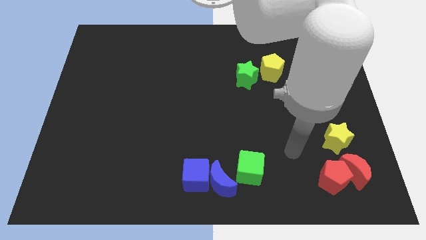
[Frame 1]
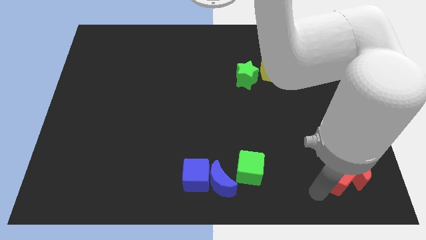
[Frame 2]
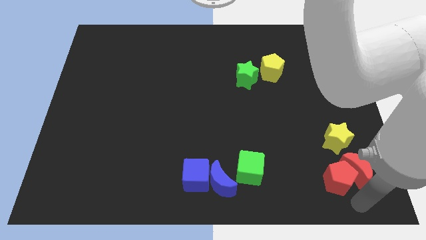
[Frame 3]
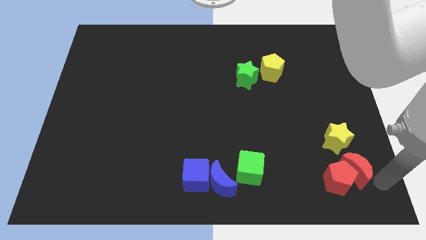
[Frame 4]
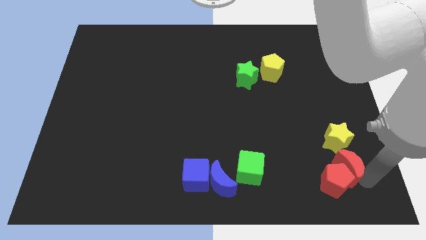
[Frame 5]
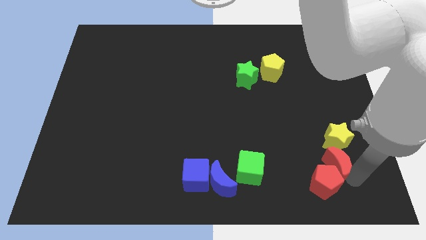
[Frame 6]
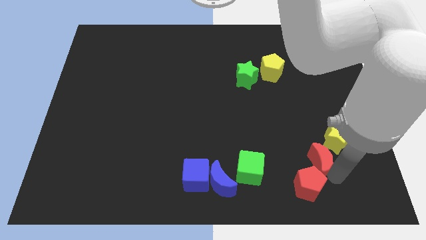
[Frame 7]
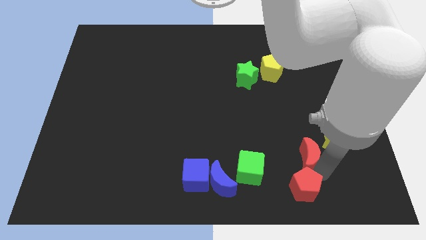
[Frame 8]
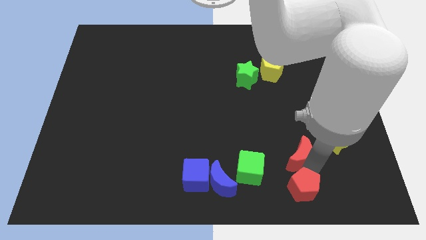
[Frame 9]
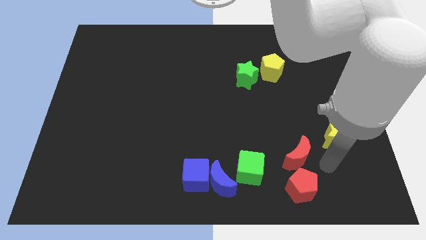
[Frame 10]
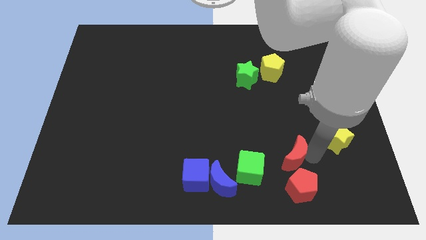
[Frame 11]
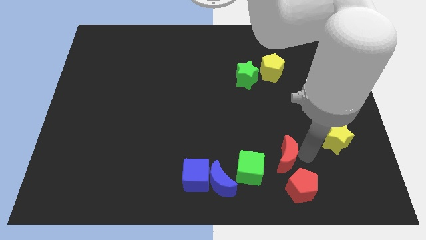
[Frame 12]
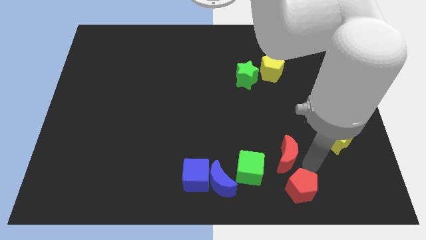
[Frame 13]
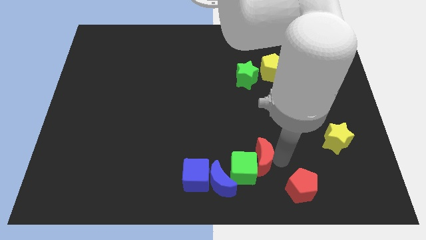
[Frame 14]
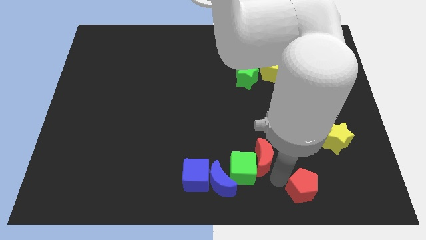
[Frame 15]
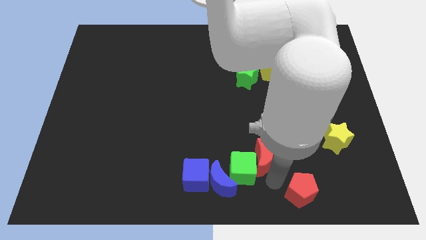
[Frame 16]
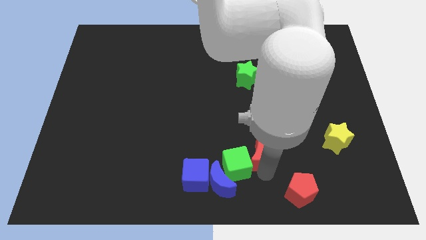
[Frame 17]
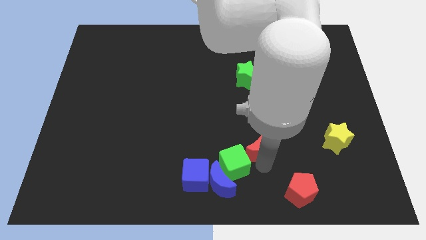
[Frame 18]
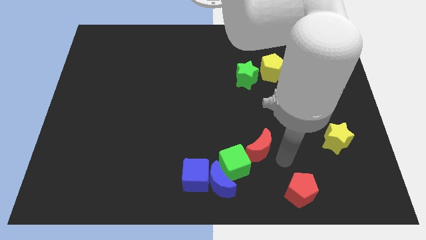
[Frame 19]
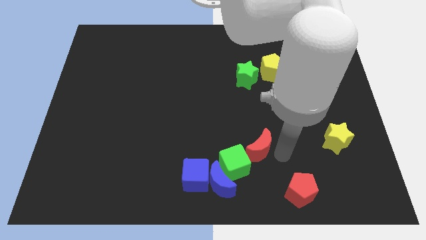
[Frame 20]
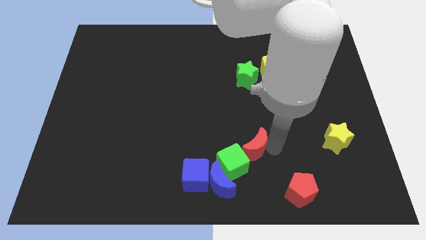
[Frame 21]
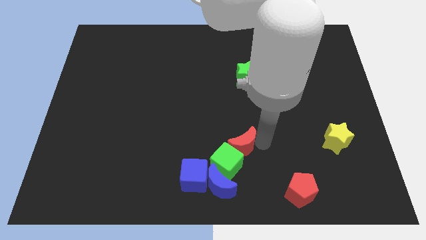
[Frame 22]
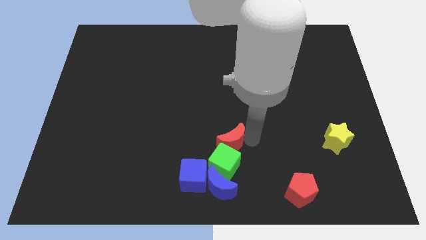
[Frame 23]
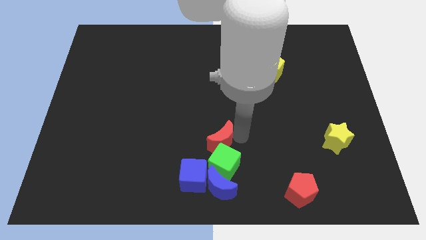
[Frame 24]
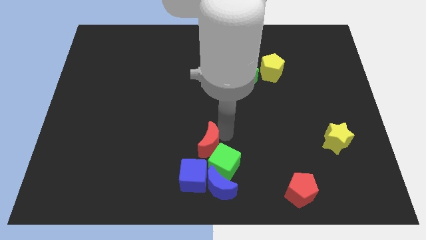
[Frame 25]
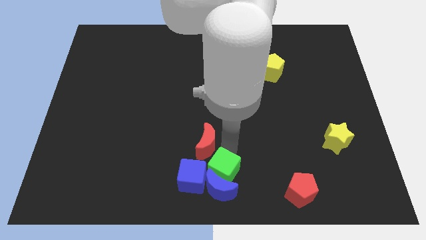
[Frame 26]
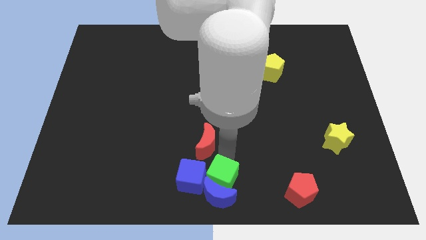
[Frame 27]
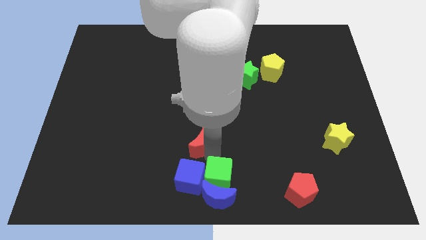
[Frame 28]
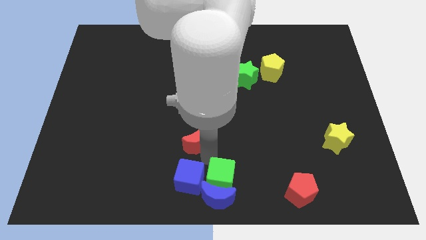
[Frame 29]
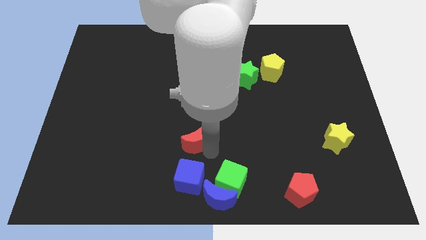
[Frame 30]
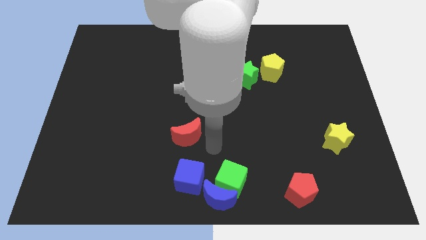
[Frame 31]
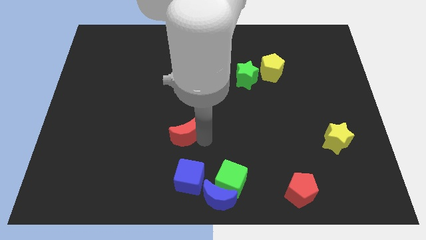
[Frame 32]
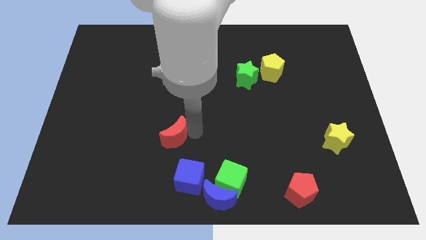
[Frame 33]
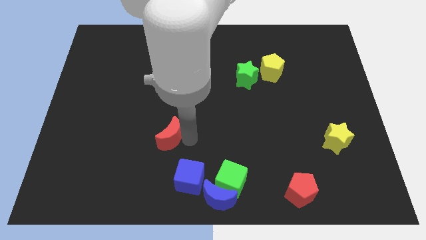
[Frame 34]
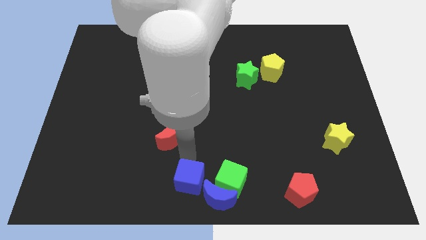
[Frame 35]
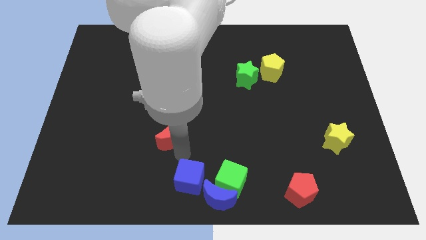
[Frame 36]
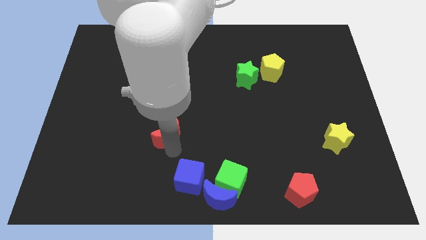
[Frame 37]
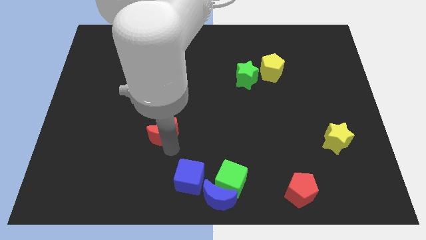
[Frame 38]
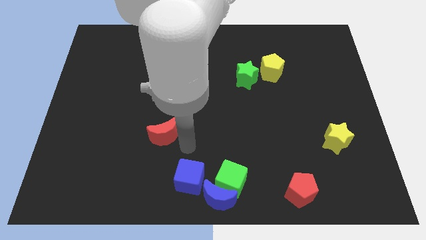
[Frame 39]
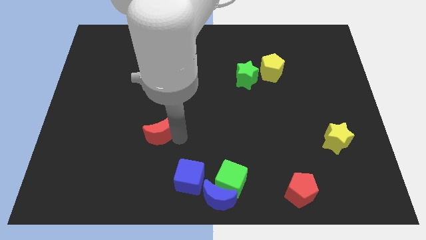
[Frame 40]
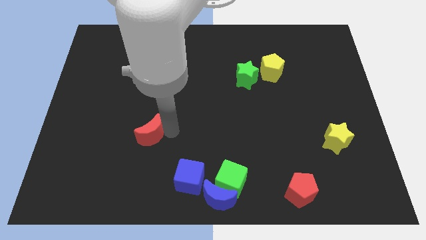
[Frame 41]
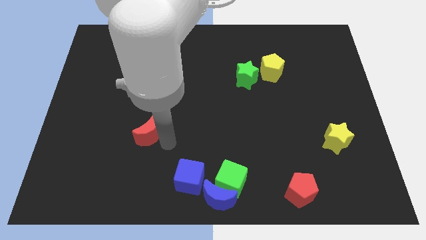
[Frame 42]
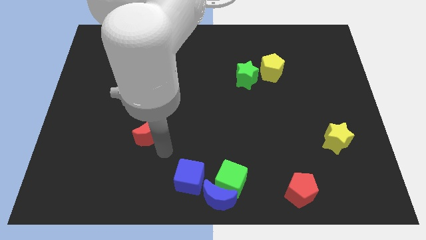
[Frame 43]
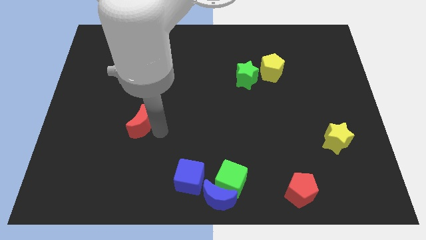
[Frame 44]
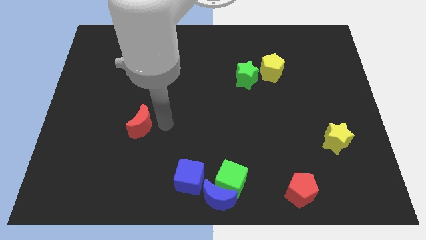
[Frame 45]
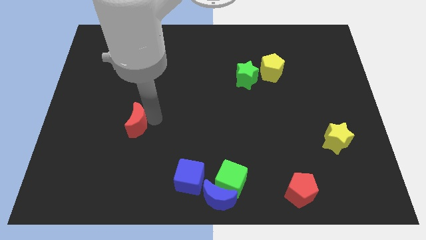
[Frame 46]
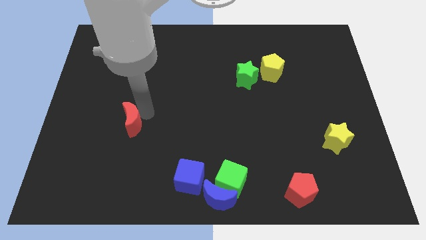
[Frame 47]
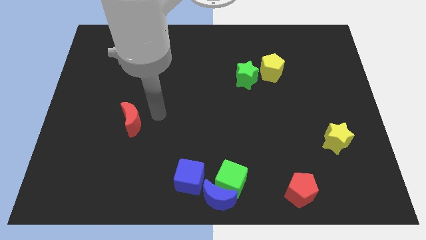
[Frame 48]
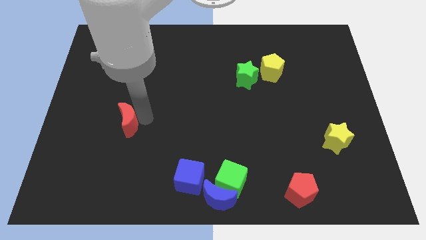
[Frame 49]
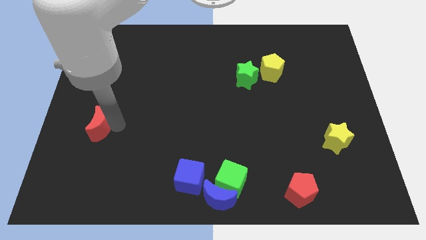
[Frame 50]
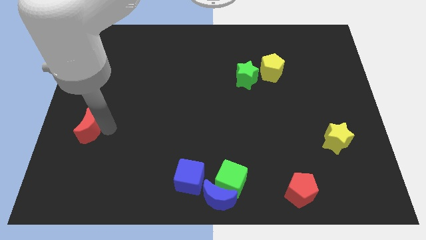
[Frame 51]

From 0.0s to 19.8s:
put the red moon to the left side

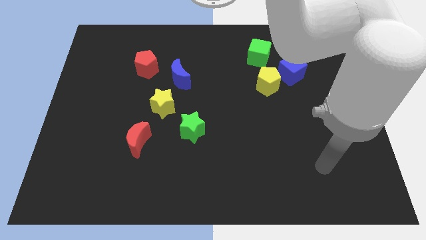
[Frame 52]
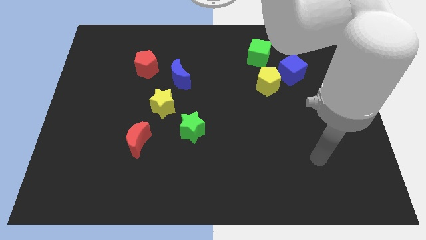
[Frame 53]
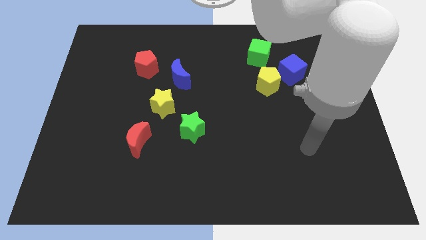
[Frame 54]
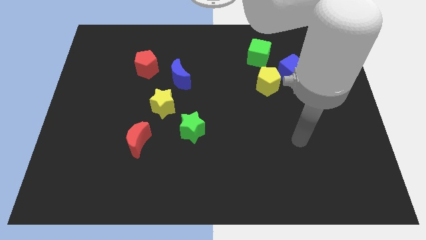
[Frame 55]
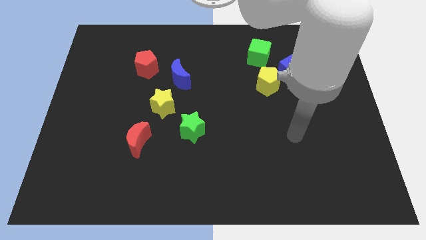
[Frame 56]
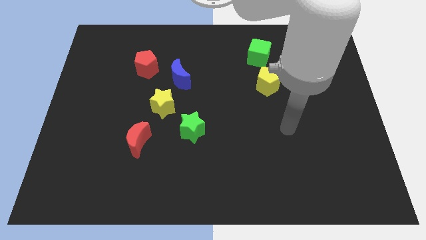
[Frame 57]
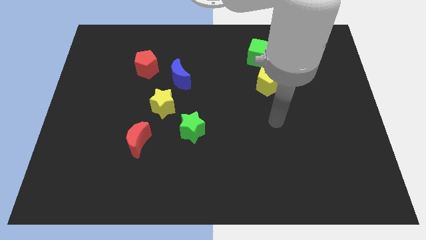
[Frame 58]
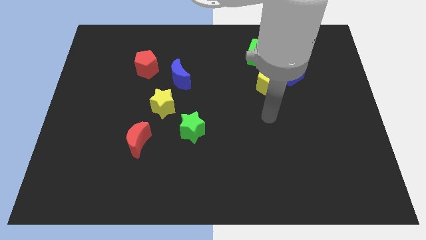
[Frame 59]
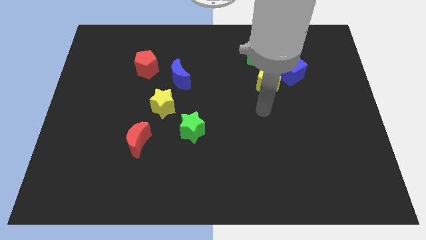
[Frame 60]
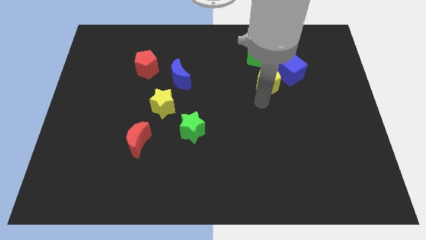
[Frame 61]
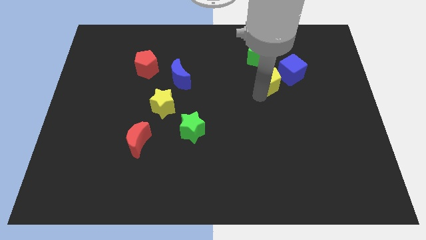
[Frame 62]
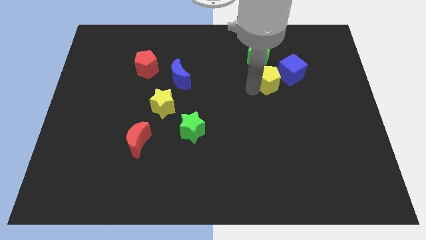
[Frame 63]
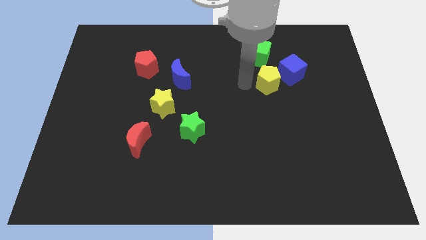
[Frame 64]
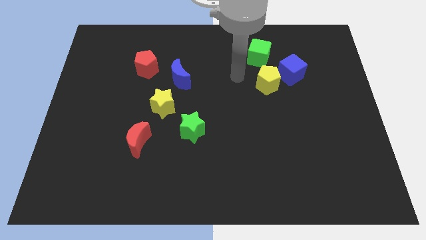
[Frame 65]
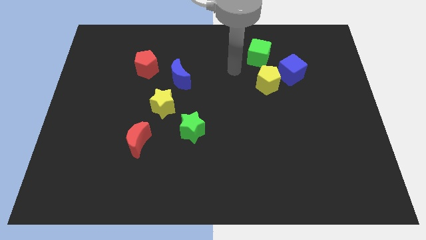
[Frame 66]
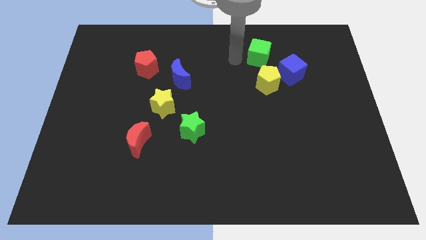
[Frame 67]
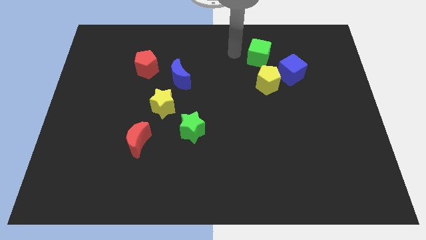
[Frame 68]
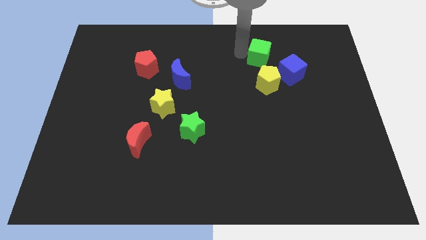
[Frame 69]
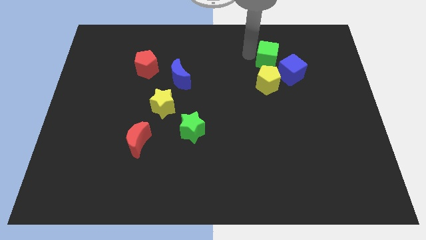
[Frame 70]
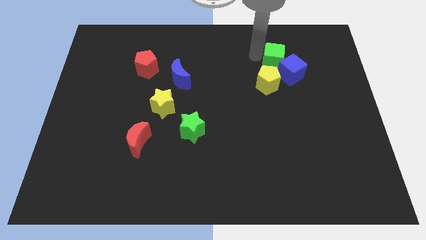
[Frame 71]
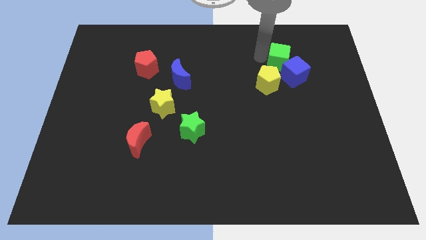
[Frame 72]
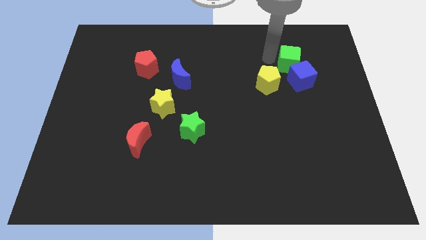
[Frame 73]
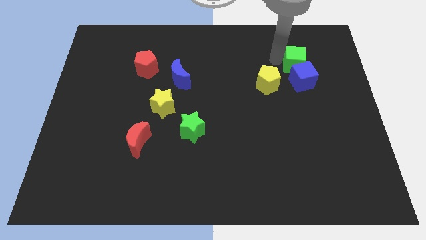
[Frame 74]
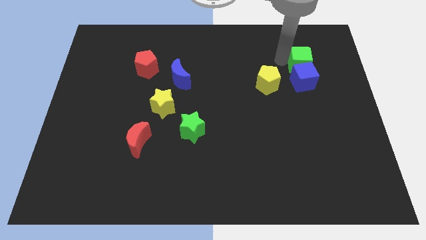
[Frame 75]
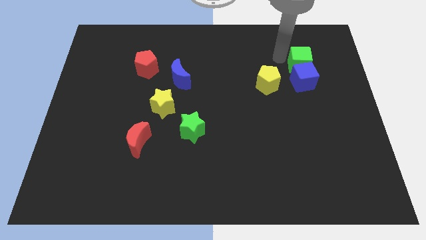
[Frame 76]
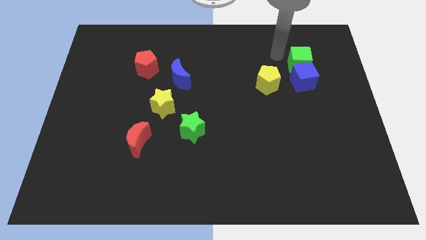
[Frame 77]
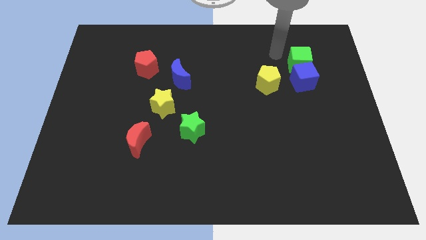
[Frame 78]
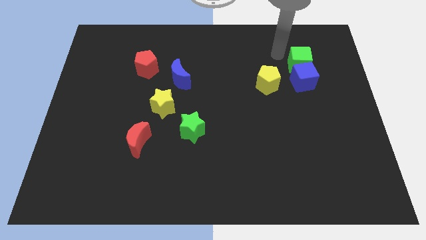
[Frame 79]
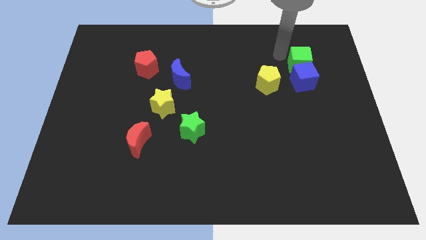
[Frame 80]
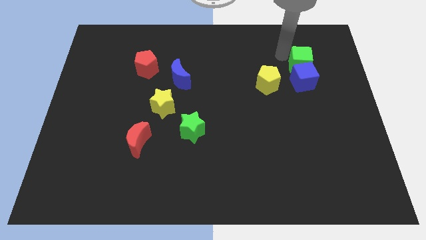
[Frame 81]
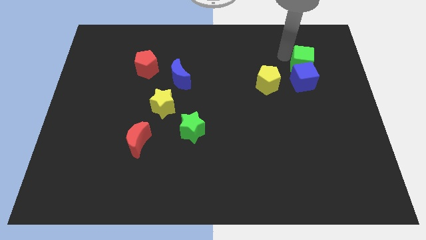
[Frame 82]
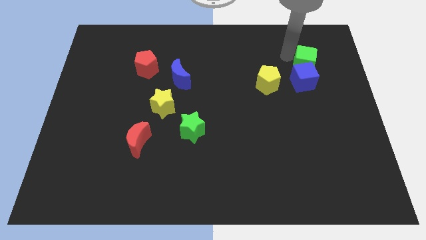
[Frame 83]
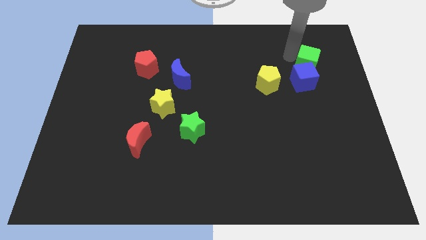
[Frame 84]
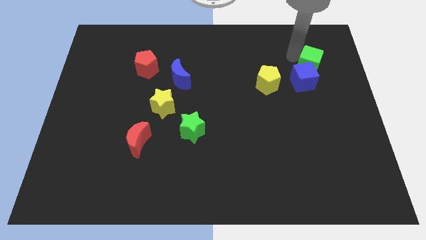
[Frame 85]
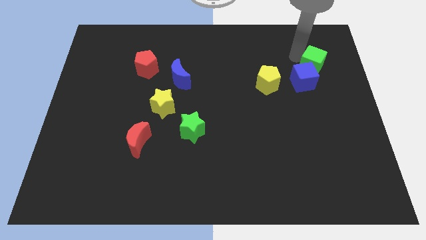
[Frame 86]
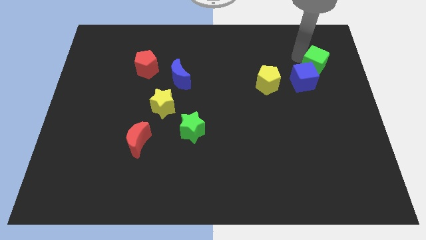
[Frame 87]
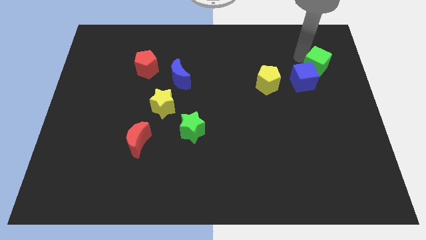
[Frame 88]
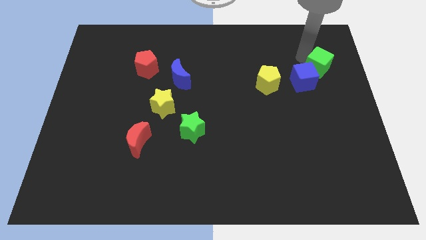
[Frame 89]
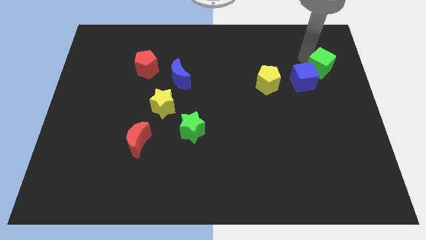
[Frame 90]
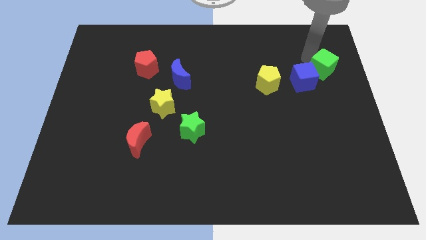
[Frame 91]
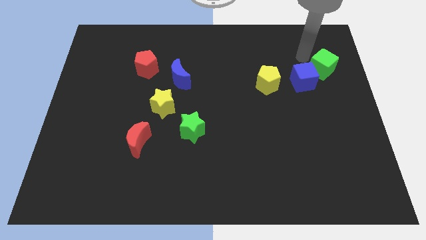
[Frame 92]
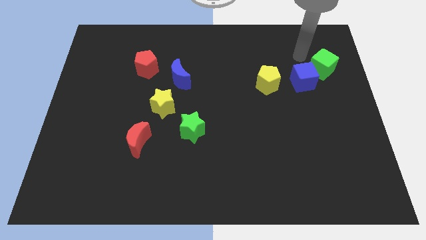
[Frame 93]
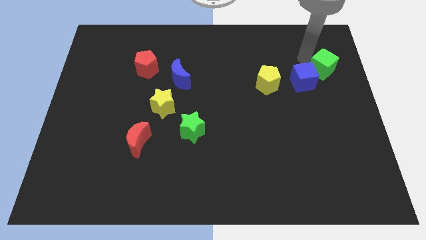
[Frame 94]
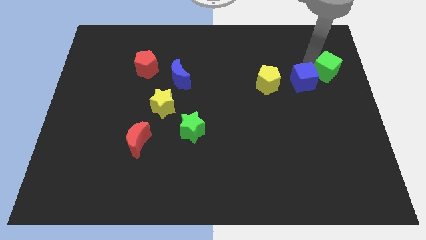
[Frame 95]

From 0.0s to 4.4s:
slide the green cube to the center right
